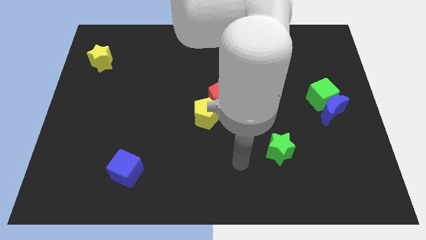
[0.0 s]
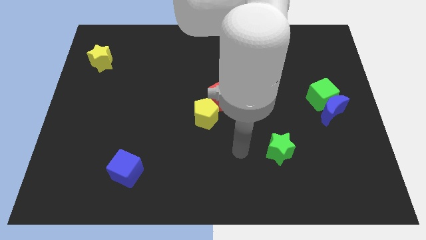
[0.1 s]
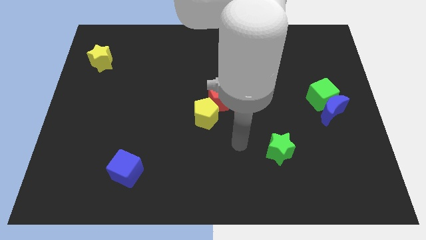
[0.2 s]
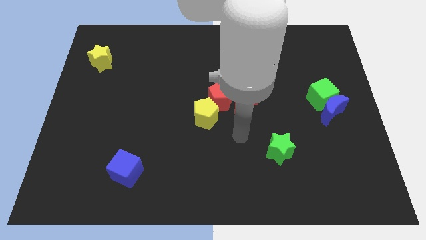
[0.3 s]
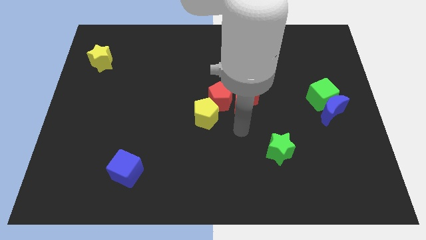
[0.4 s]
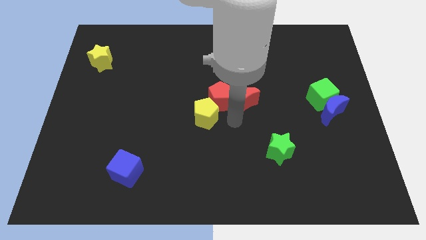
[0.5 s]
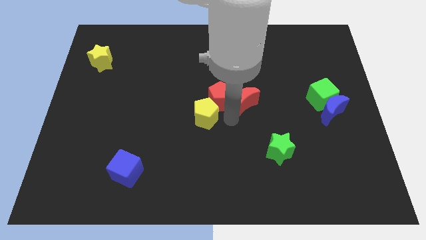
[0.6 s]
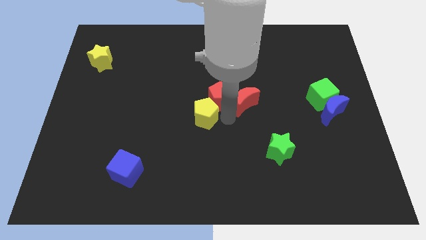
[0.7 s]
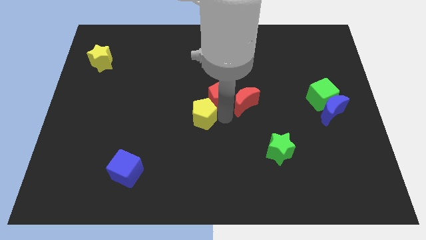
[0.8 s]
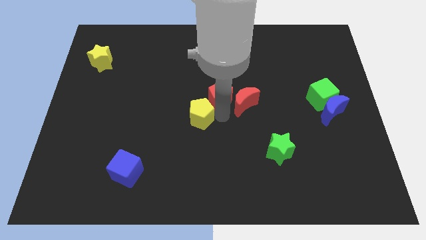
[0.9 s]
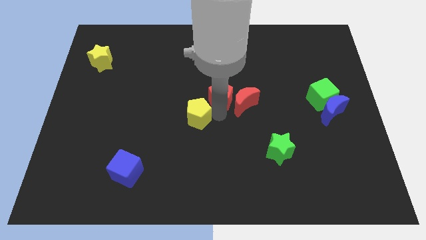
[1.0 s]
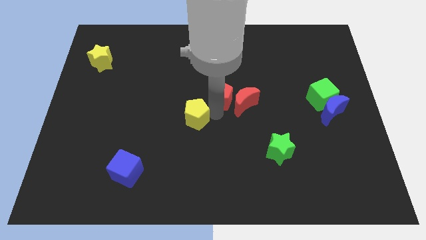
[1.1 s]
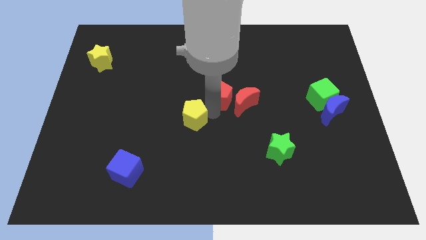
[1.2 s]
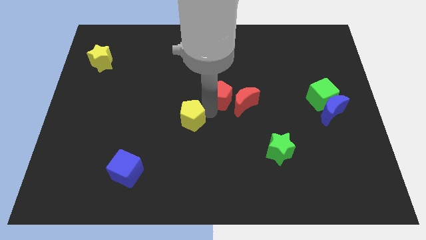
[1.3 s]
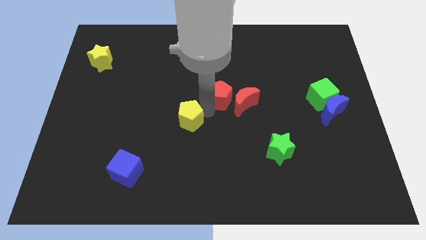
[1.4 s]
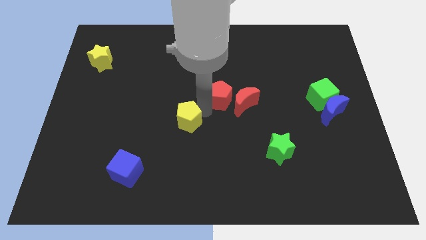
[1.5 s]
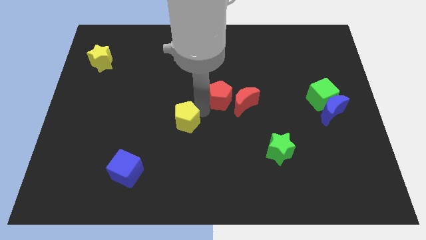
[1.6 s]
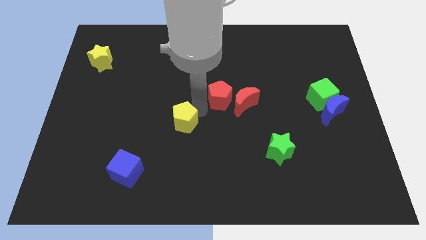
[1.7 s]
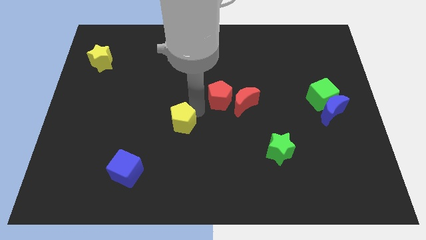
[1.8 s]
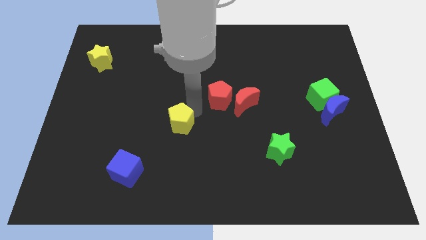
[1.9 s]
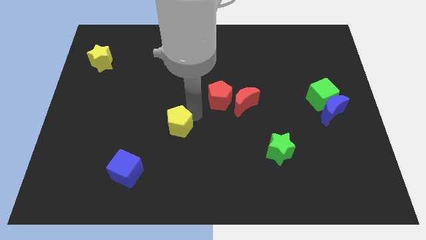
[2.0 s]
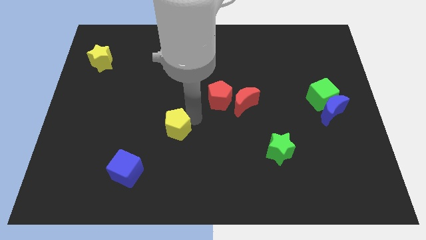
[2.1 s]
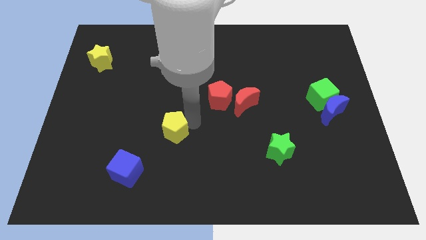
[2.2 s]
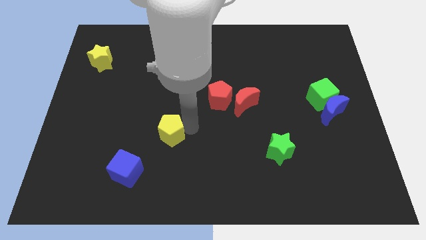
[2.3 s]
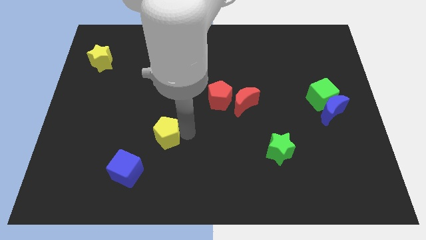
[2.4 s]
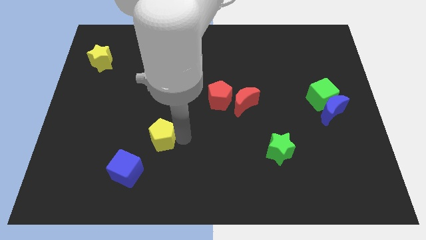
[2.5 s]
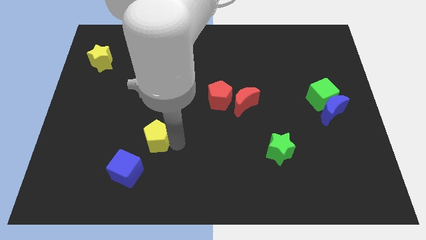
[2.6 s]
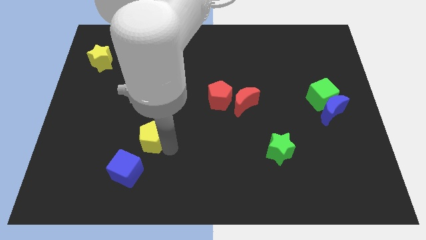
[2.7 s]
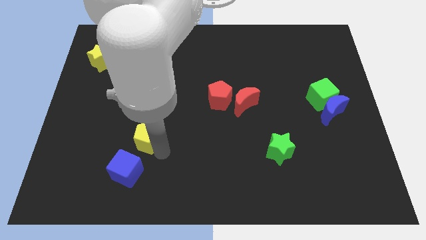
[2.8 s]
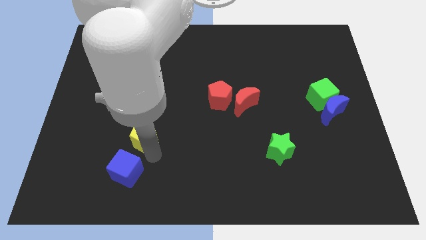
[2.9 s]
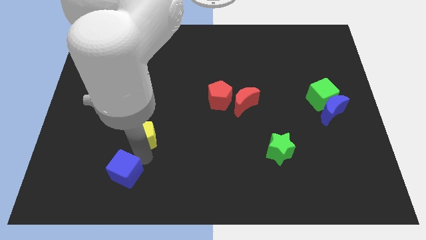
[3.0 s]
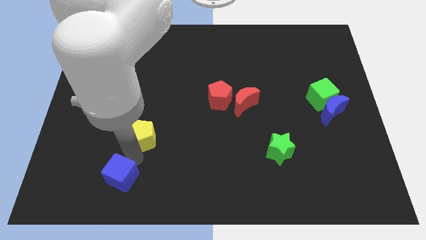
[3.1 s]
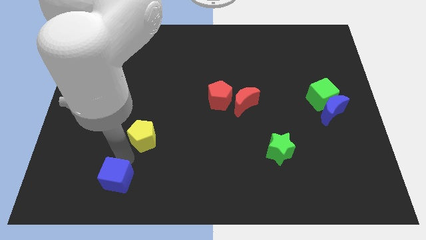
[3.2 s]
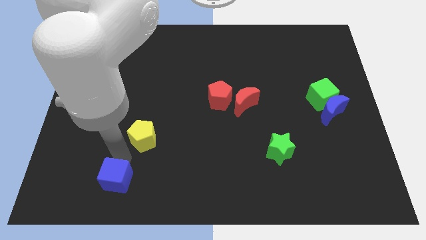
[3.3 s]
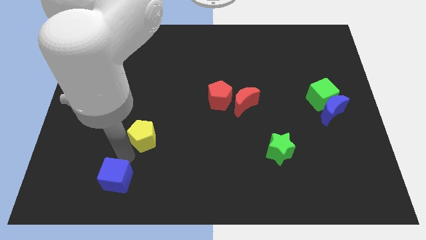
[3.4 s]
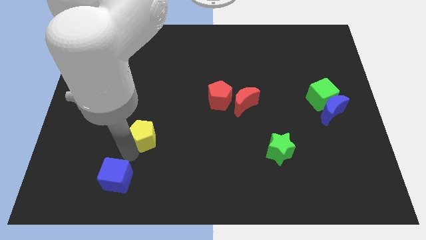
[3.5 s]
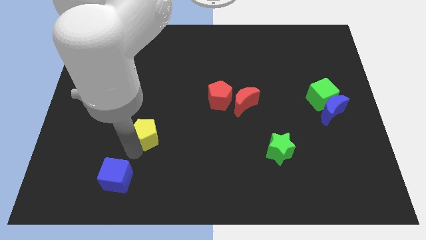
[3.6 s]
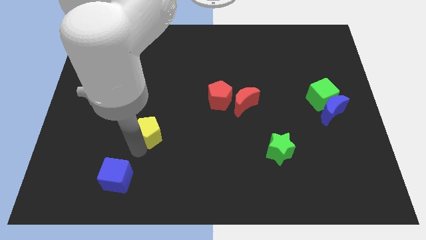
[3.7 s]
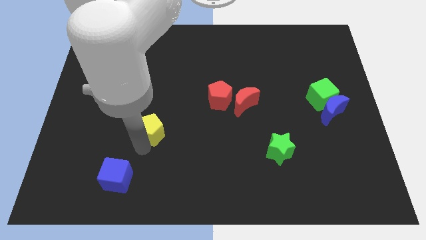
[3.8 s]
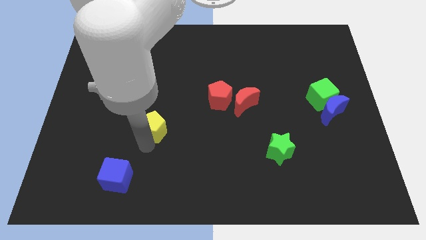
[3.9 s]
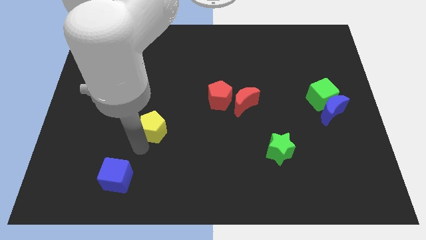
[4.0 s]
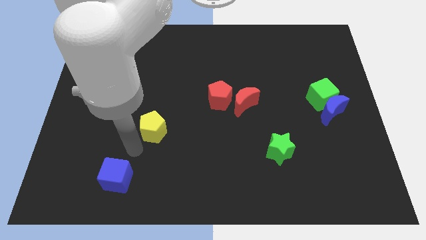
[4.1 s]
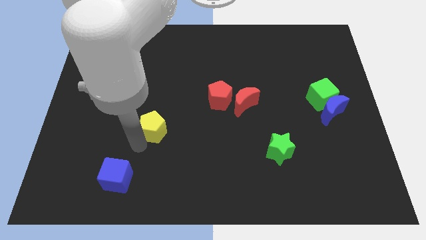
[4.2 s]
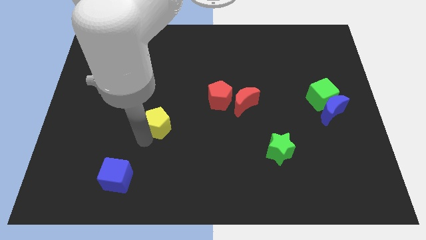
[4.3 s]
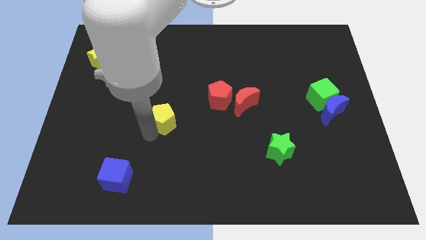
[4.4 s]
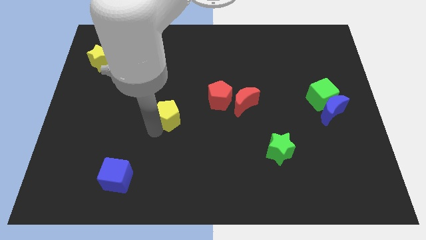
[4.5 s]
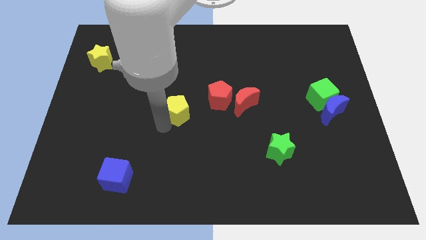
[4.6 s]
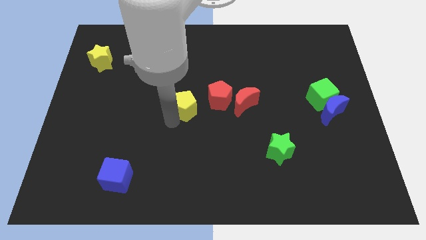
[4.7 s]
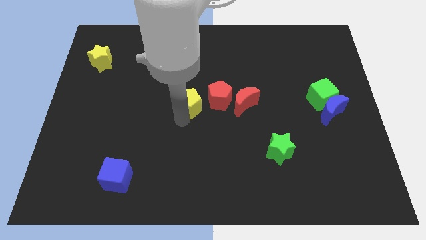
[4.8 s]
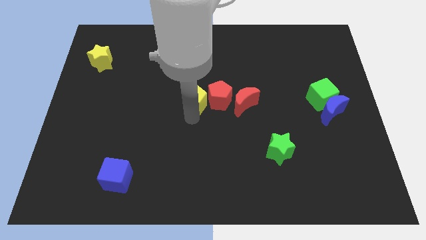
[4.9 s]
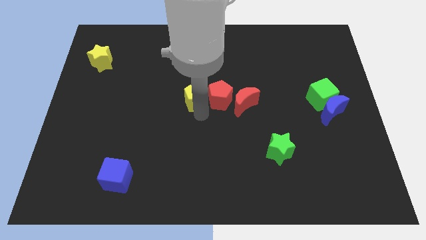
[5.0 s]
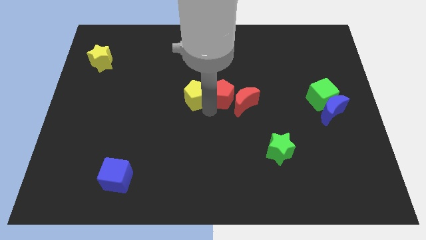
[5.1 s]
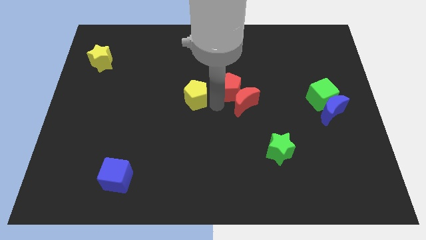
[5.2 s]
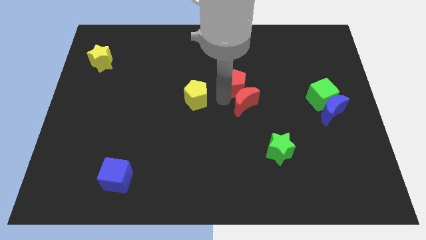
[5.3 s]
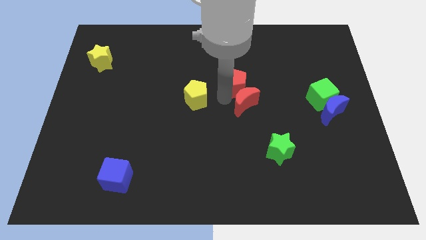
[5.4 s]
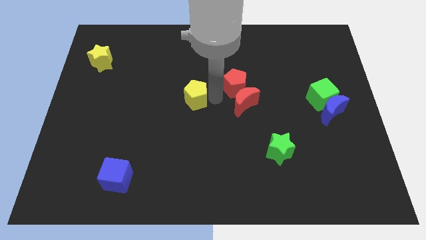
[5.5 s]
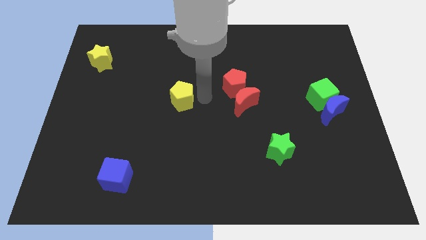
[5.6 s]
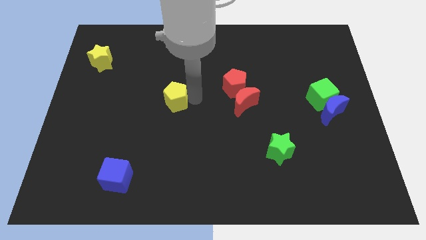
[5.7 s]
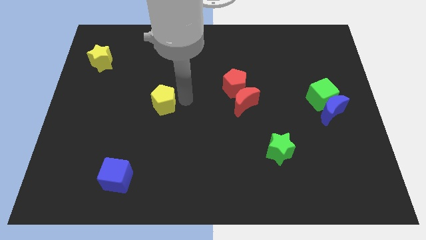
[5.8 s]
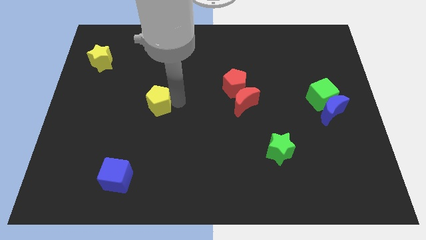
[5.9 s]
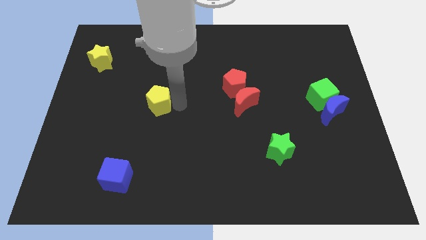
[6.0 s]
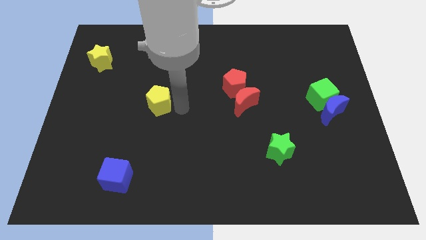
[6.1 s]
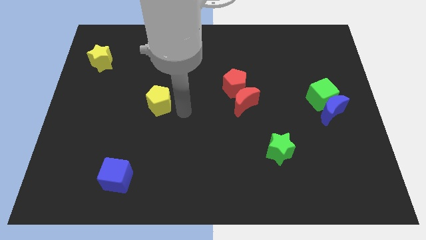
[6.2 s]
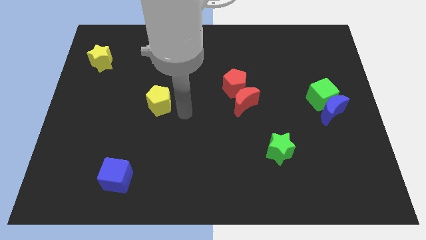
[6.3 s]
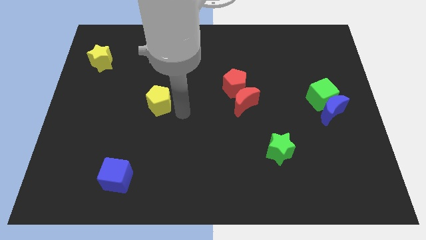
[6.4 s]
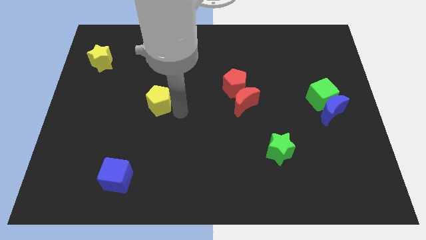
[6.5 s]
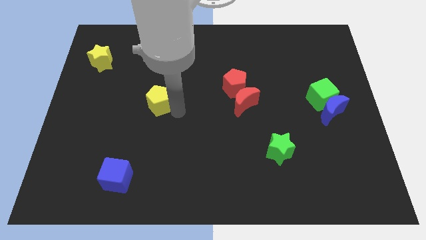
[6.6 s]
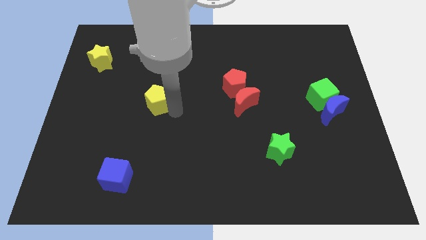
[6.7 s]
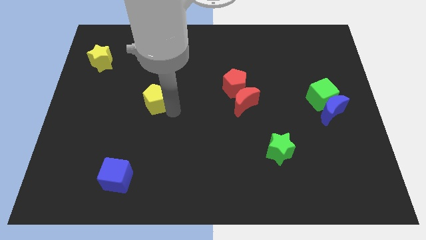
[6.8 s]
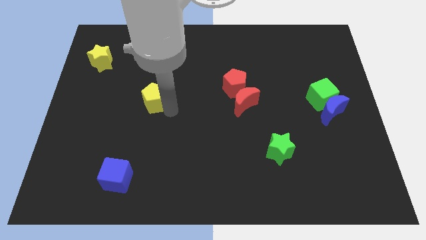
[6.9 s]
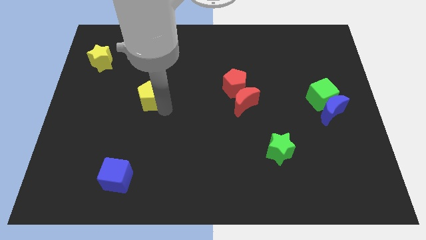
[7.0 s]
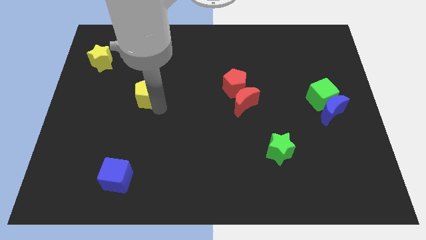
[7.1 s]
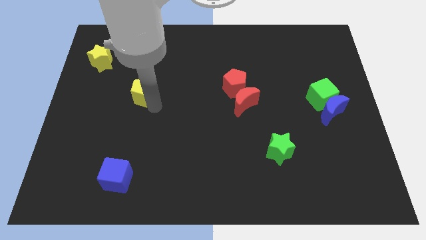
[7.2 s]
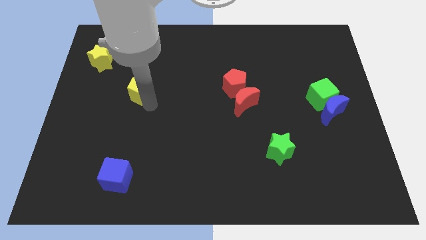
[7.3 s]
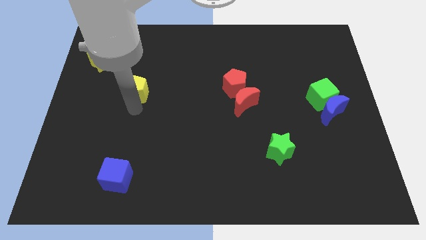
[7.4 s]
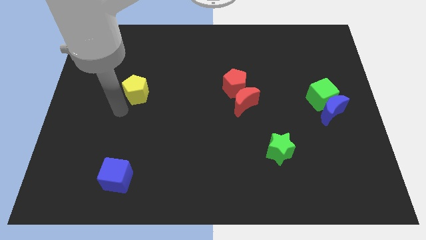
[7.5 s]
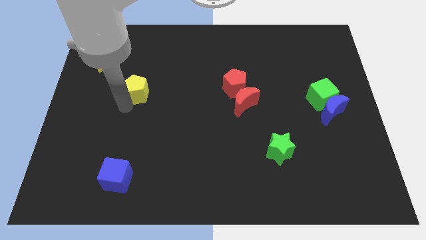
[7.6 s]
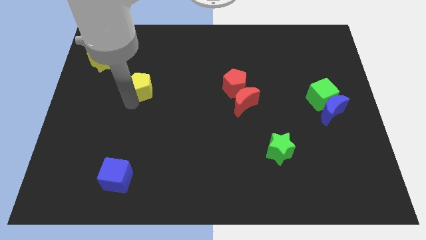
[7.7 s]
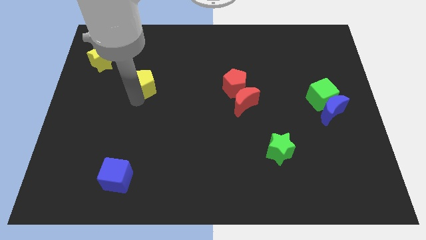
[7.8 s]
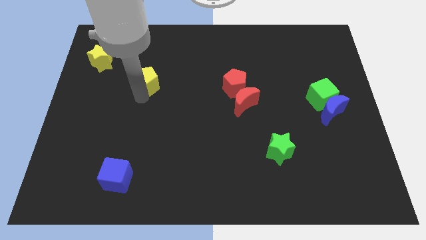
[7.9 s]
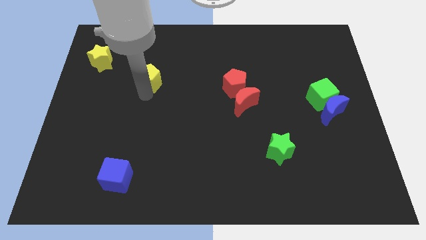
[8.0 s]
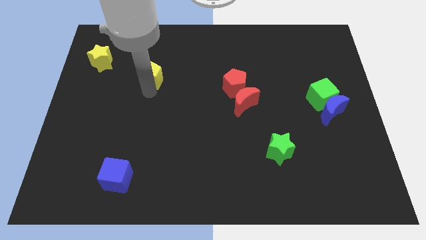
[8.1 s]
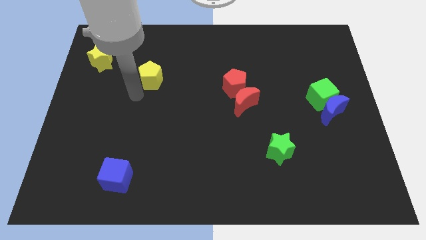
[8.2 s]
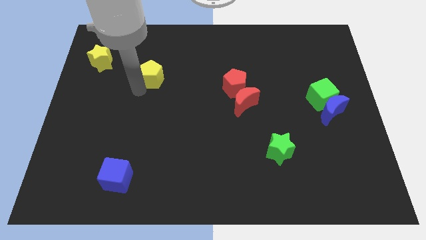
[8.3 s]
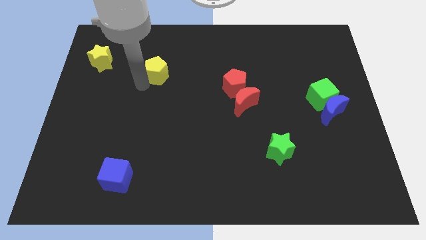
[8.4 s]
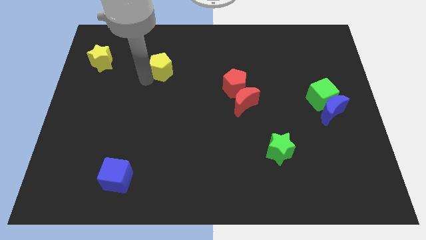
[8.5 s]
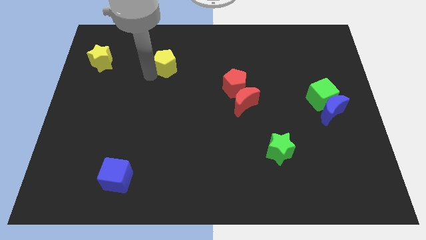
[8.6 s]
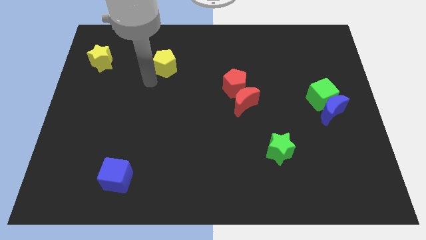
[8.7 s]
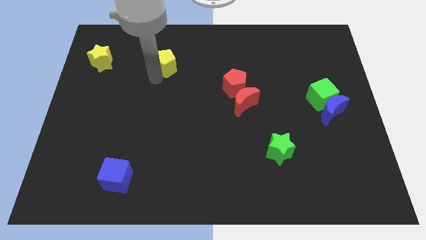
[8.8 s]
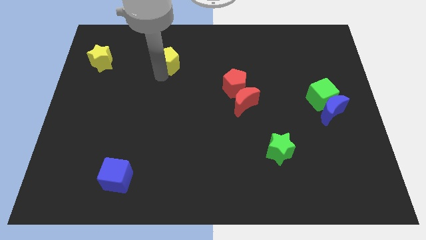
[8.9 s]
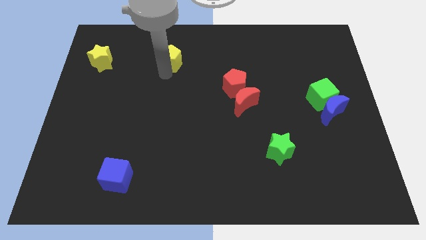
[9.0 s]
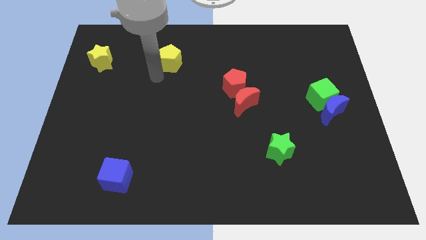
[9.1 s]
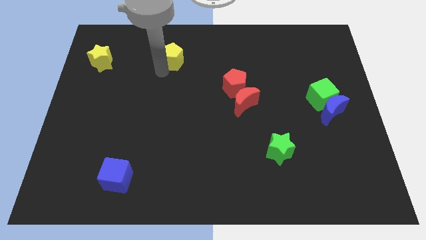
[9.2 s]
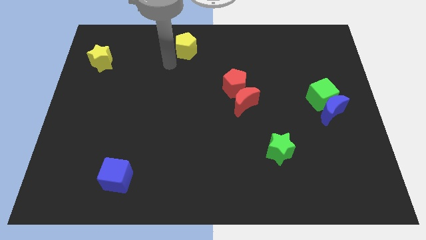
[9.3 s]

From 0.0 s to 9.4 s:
push the yellow pentagon to the towards your base
